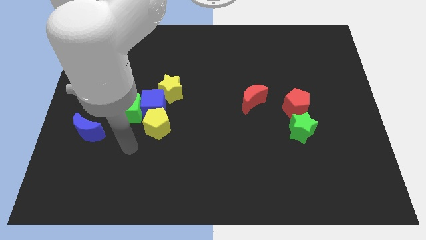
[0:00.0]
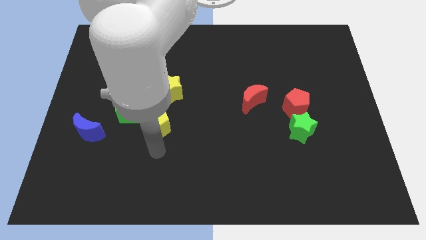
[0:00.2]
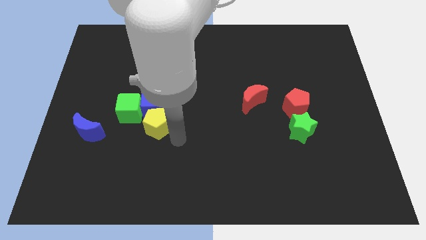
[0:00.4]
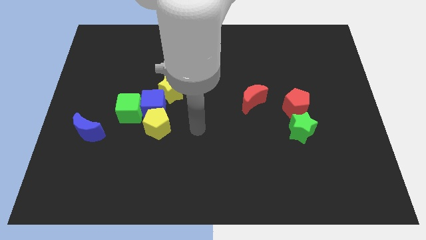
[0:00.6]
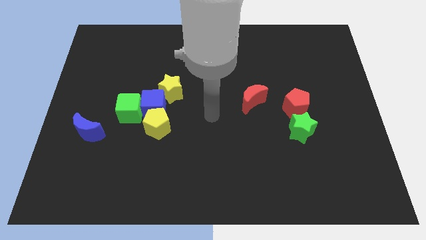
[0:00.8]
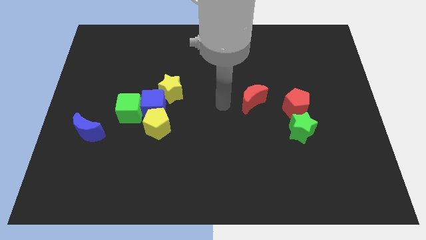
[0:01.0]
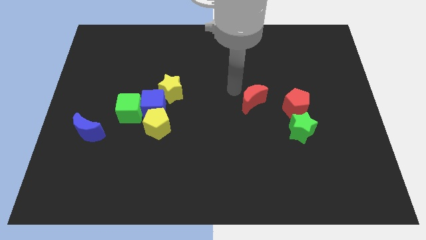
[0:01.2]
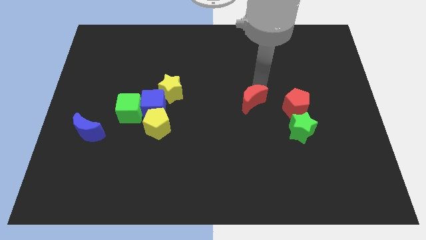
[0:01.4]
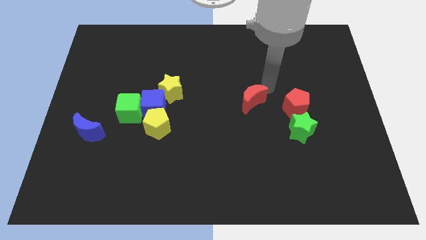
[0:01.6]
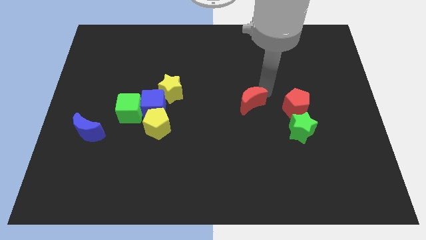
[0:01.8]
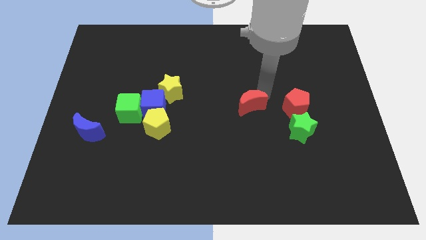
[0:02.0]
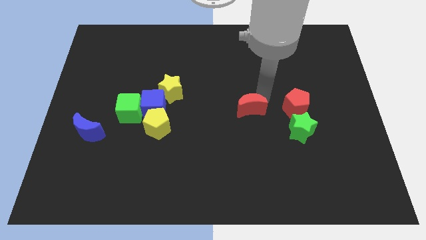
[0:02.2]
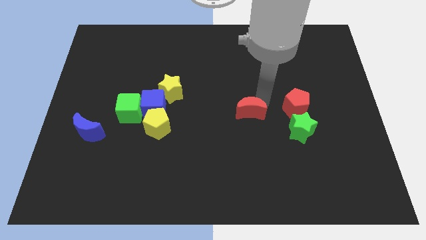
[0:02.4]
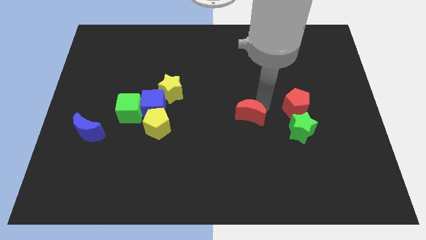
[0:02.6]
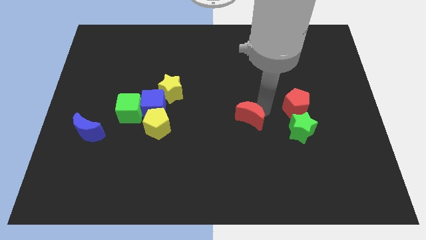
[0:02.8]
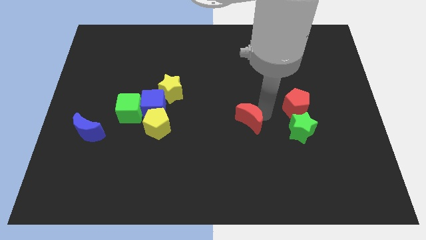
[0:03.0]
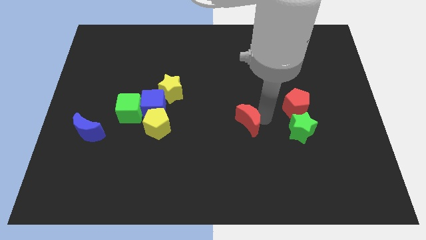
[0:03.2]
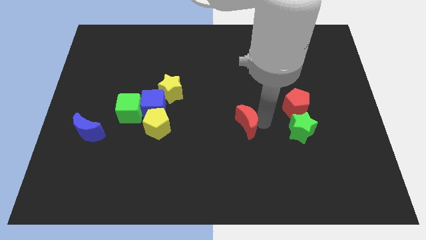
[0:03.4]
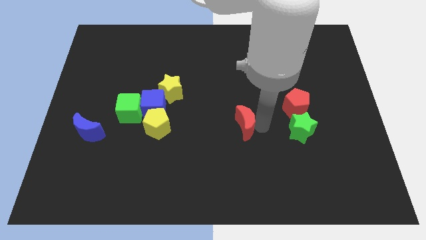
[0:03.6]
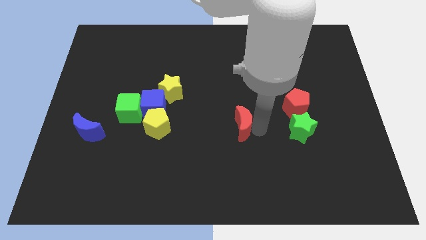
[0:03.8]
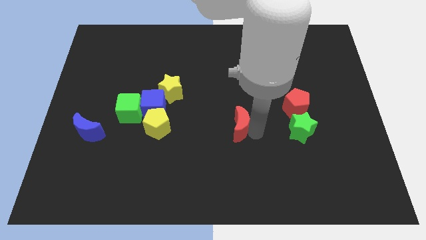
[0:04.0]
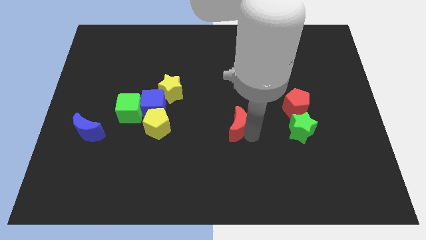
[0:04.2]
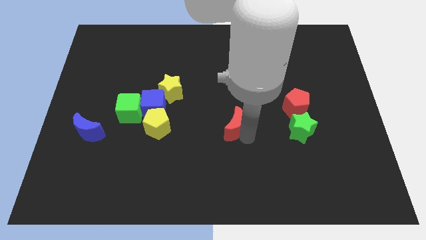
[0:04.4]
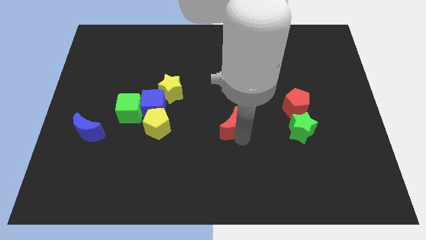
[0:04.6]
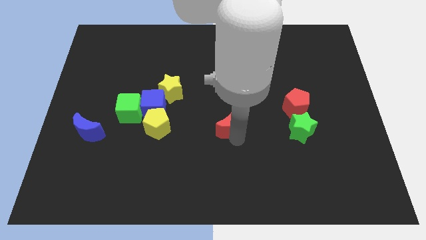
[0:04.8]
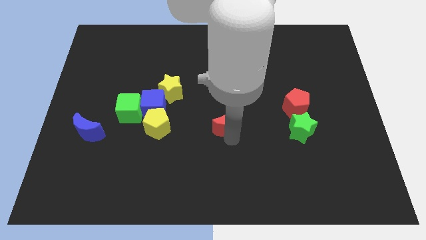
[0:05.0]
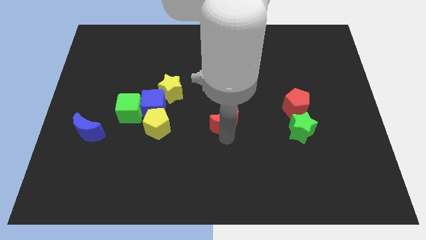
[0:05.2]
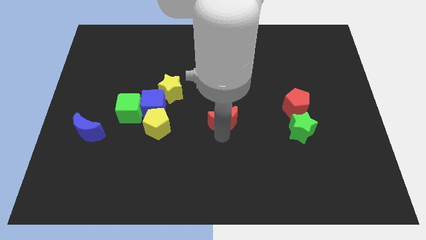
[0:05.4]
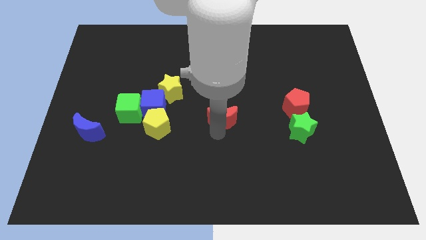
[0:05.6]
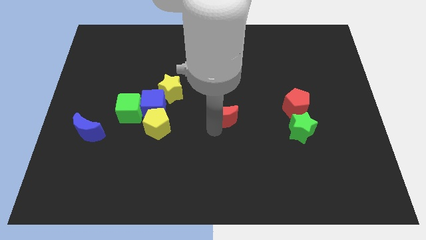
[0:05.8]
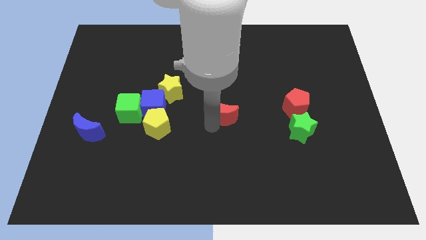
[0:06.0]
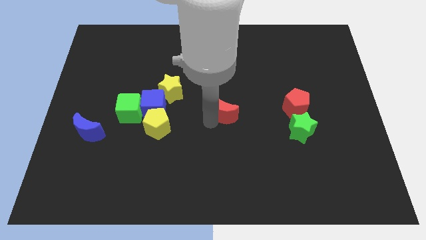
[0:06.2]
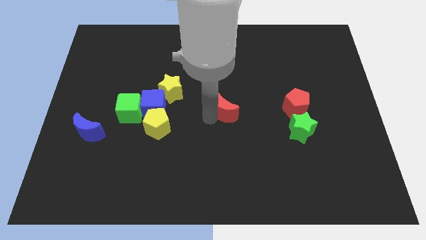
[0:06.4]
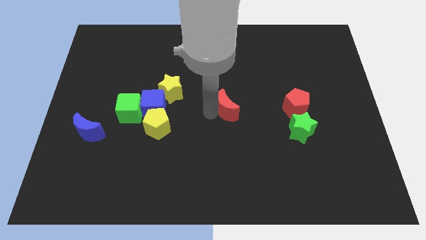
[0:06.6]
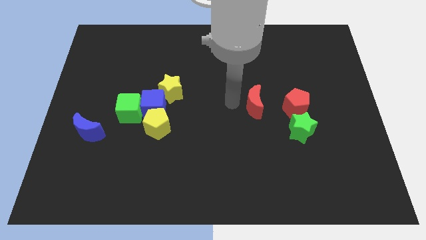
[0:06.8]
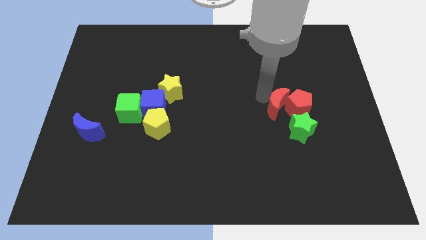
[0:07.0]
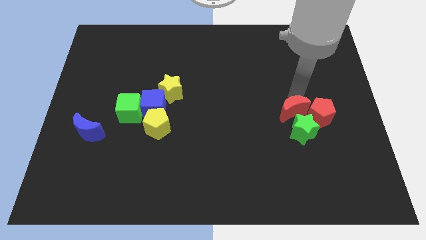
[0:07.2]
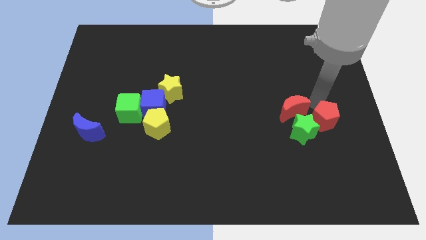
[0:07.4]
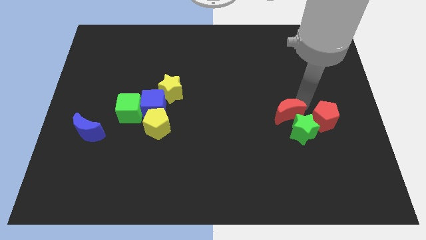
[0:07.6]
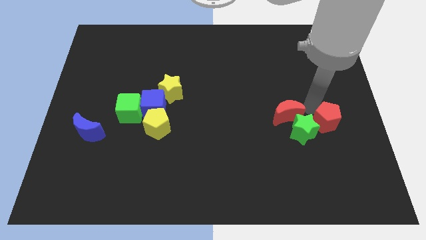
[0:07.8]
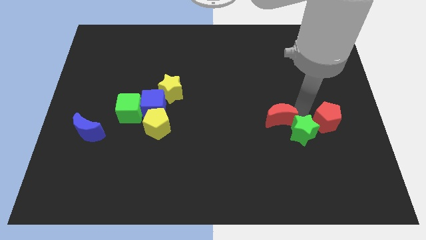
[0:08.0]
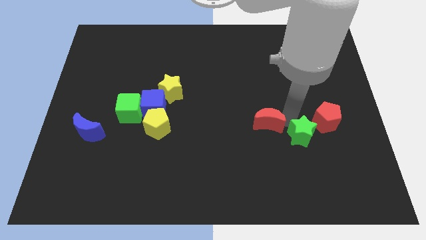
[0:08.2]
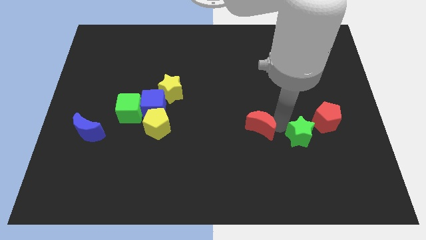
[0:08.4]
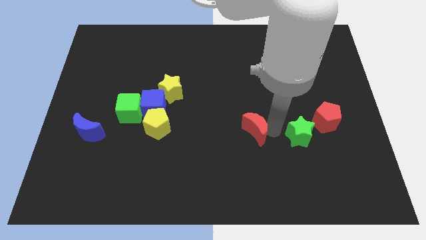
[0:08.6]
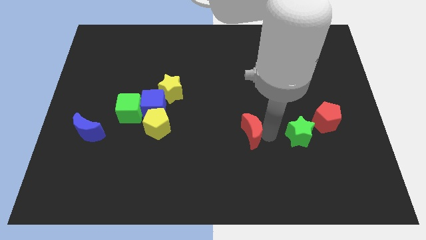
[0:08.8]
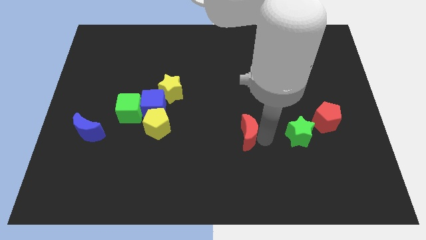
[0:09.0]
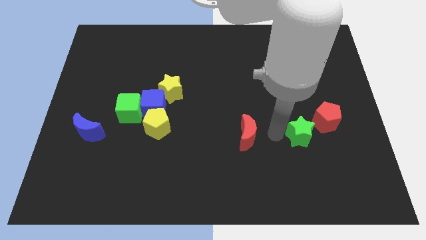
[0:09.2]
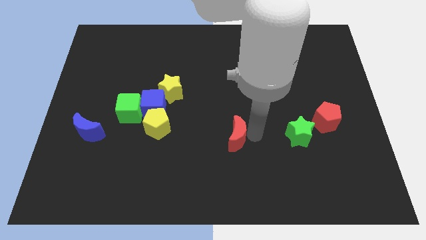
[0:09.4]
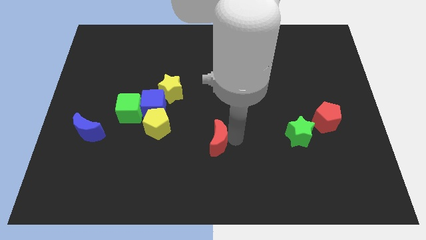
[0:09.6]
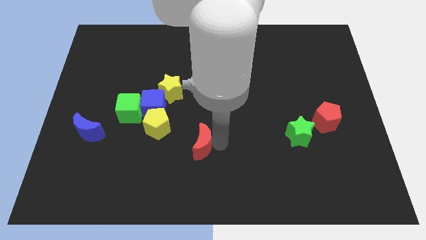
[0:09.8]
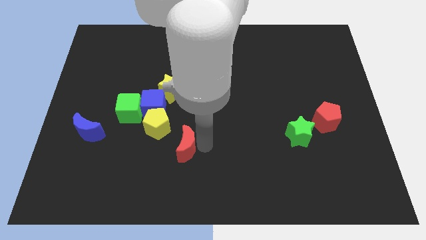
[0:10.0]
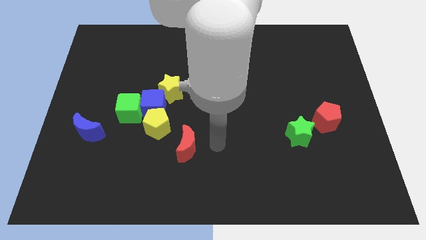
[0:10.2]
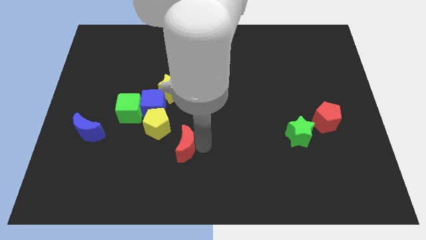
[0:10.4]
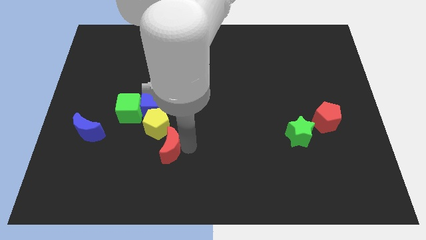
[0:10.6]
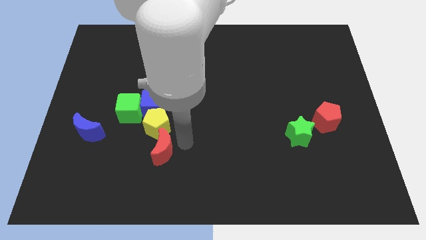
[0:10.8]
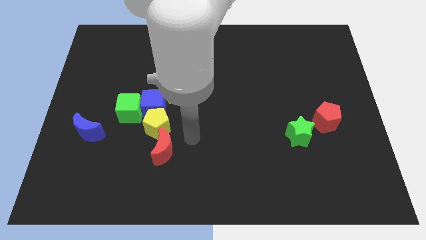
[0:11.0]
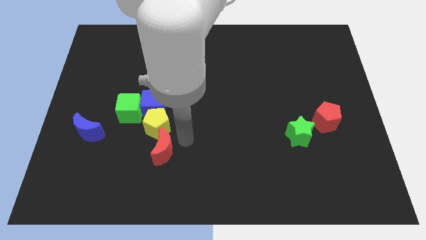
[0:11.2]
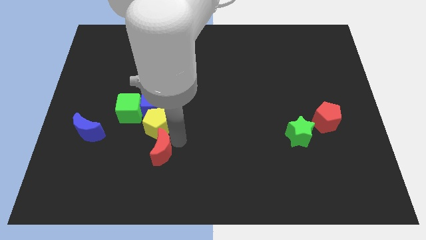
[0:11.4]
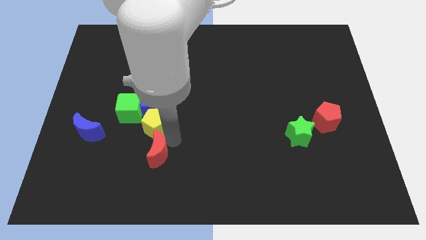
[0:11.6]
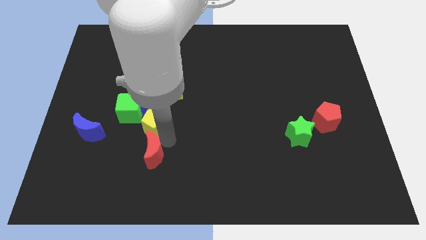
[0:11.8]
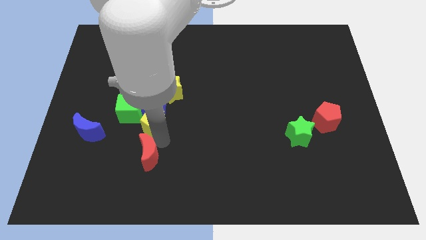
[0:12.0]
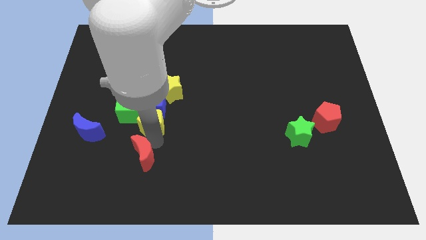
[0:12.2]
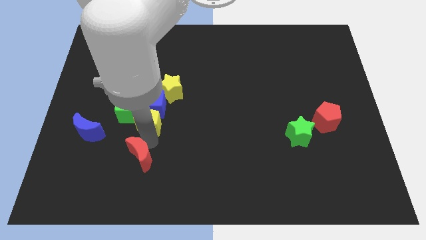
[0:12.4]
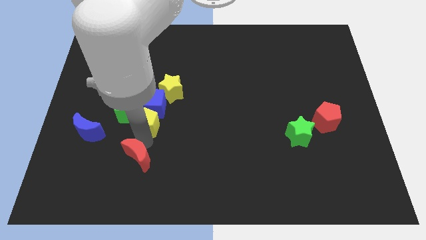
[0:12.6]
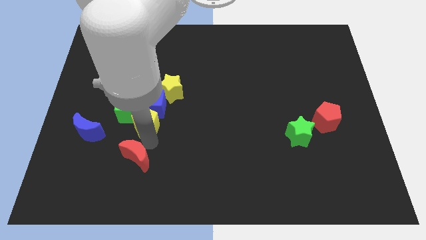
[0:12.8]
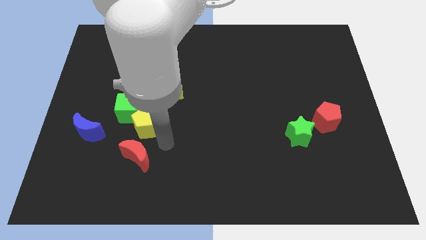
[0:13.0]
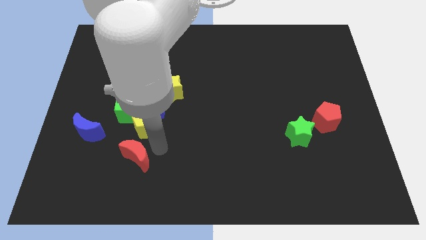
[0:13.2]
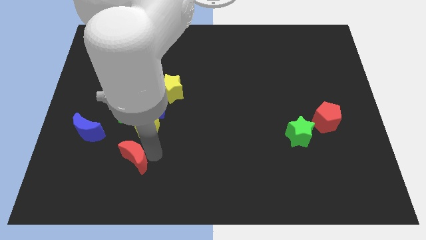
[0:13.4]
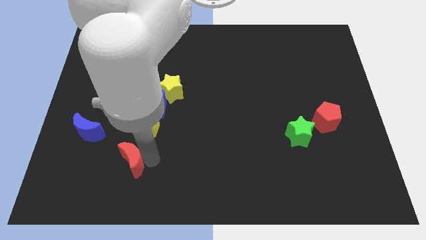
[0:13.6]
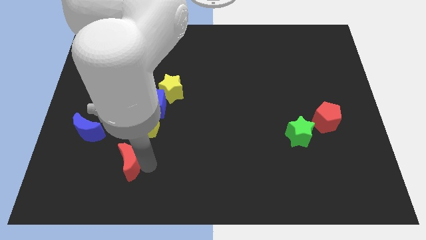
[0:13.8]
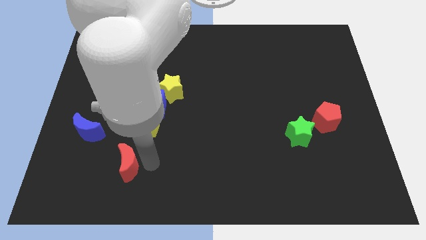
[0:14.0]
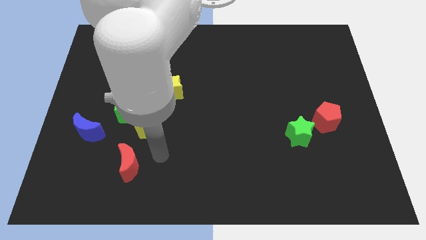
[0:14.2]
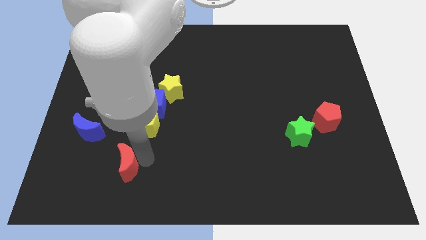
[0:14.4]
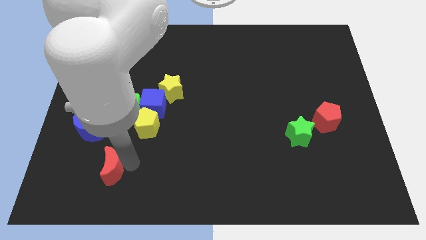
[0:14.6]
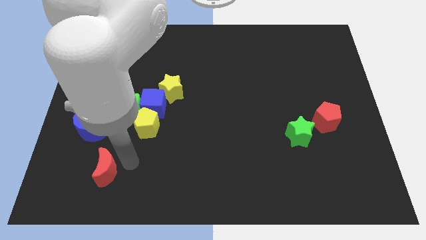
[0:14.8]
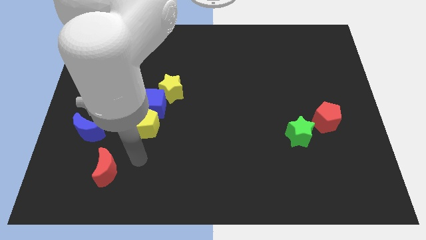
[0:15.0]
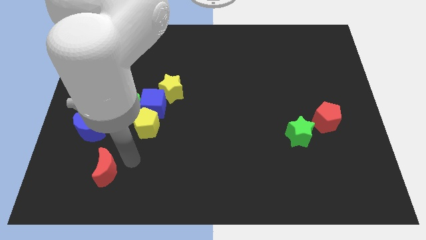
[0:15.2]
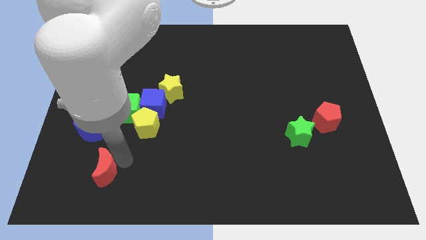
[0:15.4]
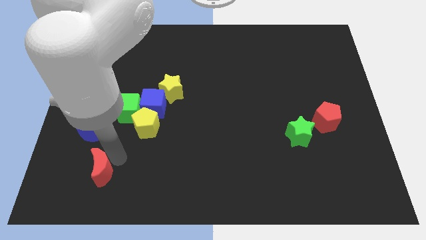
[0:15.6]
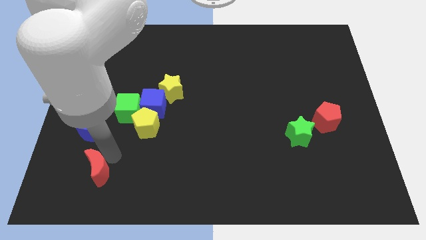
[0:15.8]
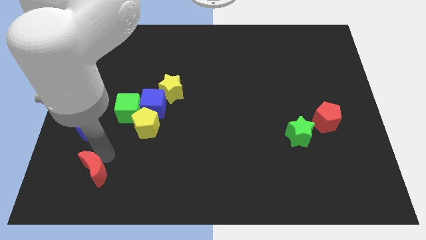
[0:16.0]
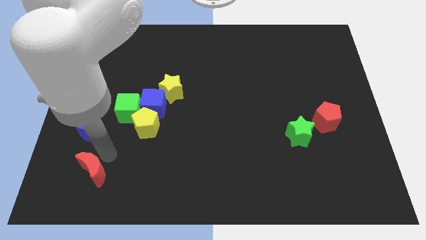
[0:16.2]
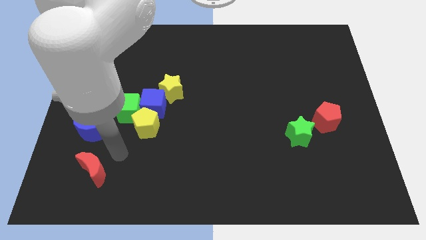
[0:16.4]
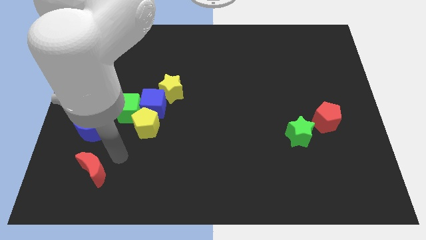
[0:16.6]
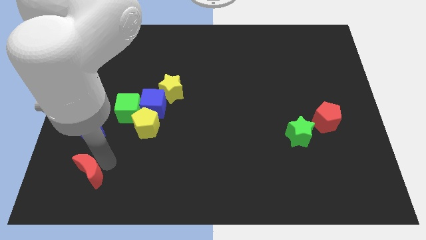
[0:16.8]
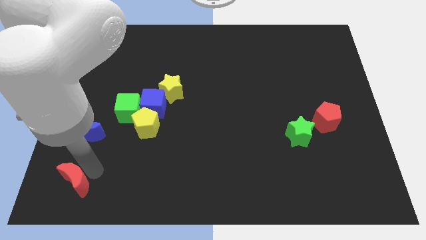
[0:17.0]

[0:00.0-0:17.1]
move the red moon to the bottom left of the board
